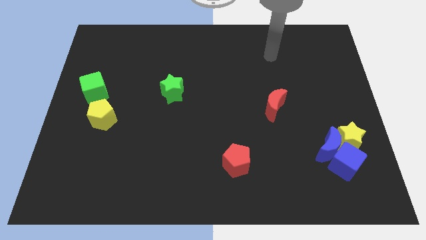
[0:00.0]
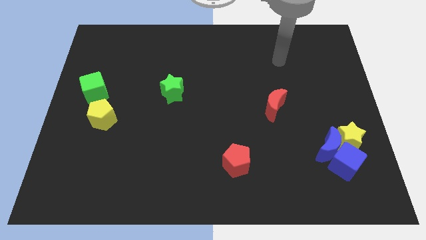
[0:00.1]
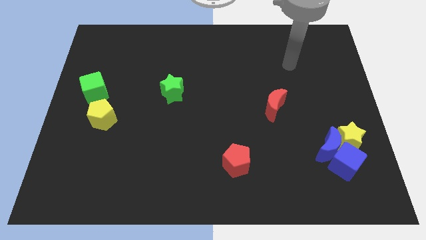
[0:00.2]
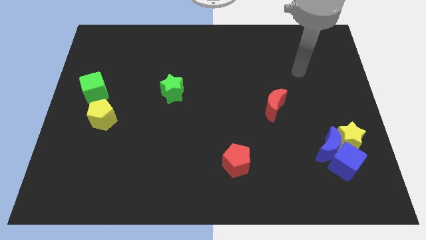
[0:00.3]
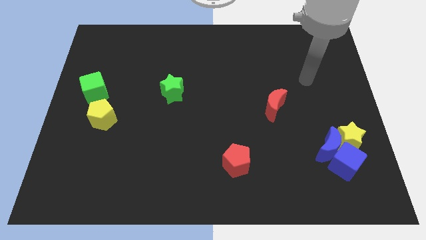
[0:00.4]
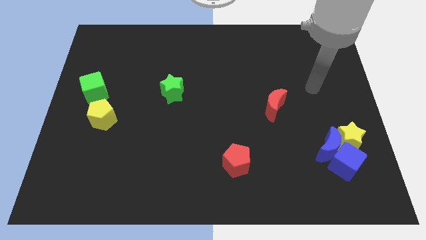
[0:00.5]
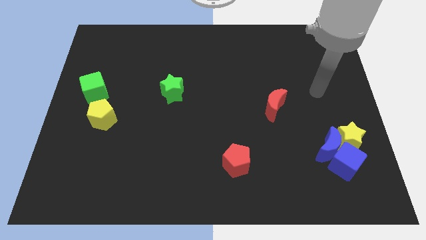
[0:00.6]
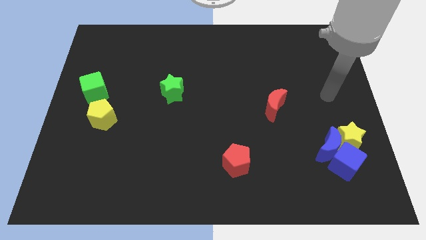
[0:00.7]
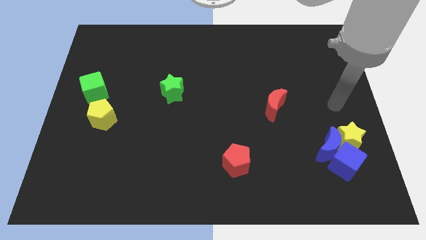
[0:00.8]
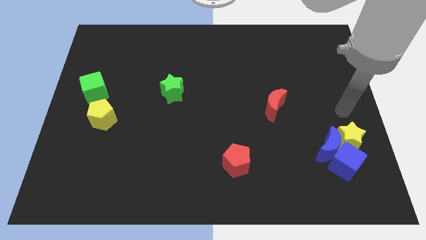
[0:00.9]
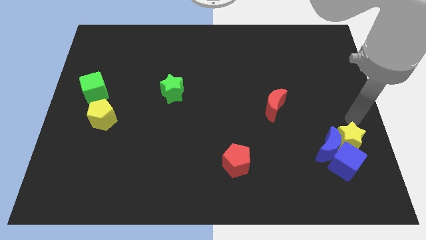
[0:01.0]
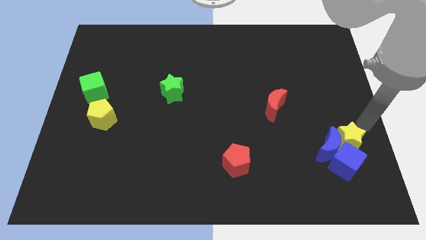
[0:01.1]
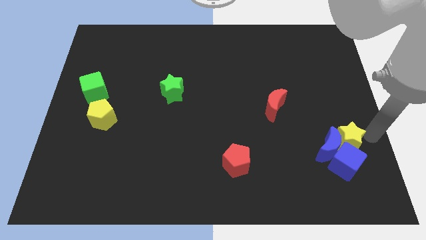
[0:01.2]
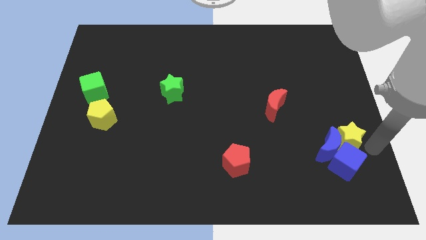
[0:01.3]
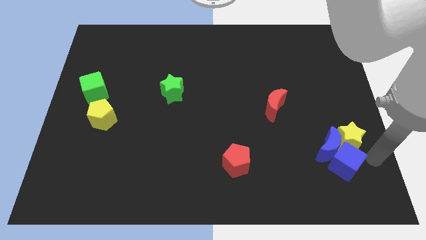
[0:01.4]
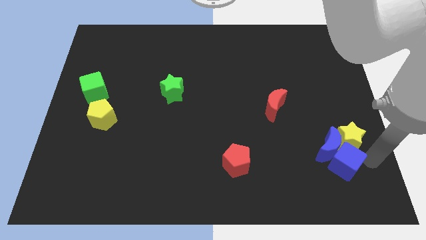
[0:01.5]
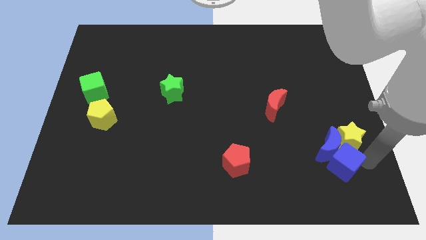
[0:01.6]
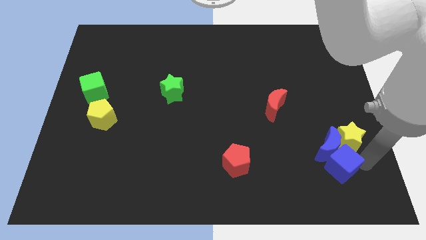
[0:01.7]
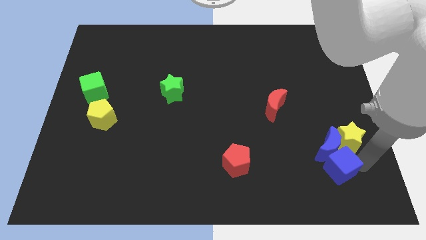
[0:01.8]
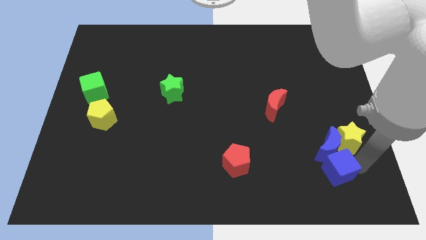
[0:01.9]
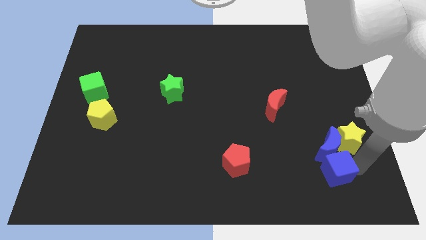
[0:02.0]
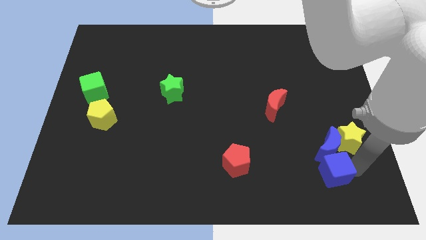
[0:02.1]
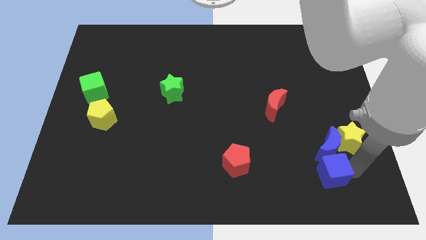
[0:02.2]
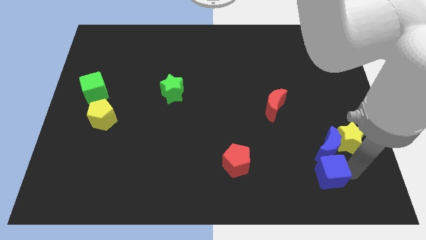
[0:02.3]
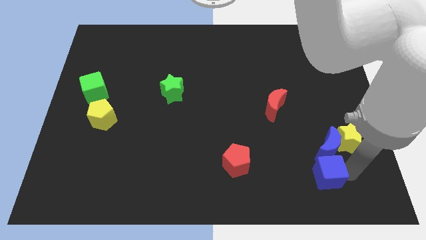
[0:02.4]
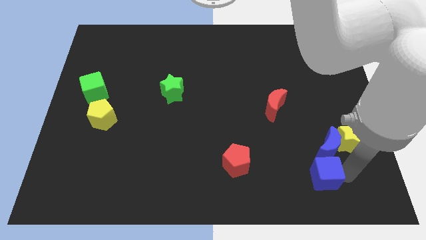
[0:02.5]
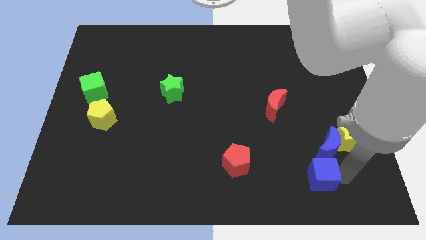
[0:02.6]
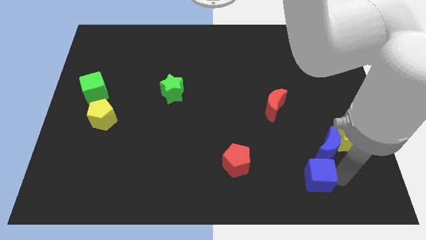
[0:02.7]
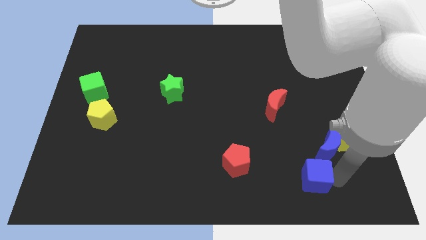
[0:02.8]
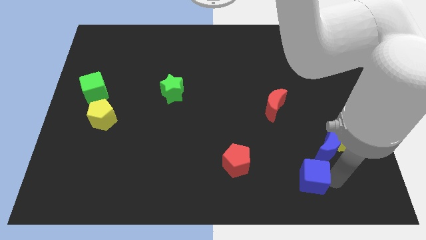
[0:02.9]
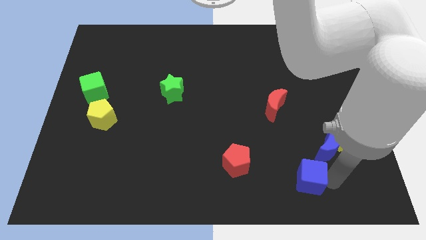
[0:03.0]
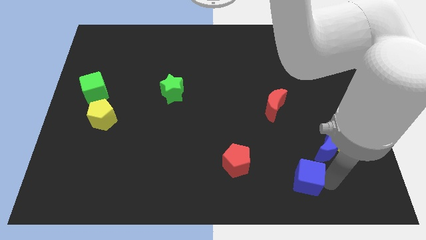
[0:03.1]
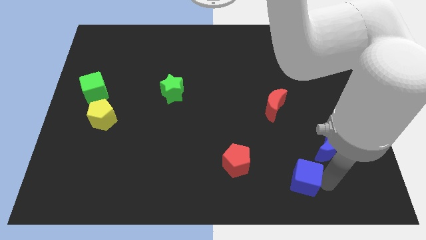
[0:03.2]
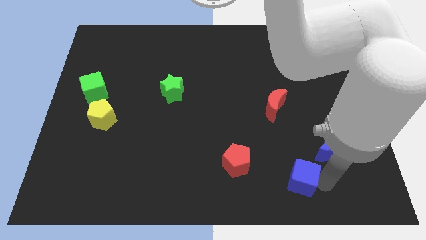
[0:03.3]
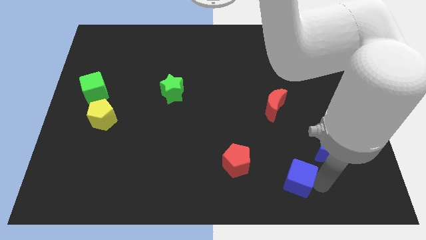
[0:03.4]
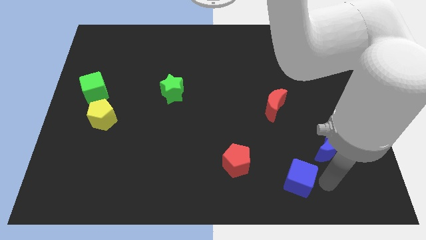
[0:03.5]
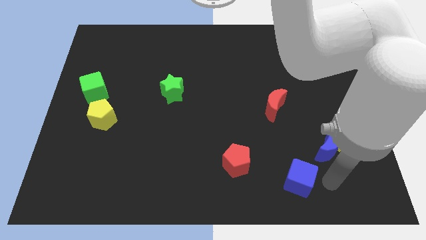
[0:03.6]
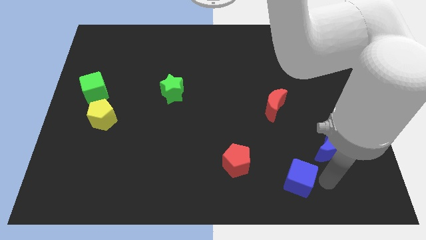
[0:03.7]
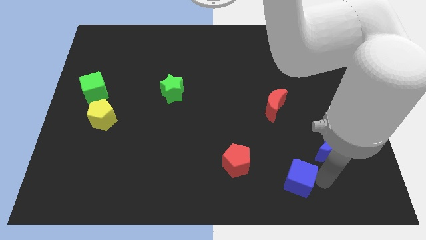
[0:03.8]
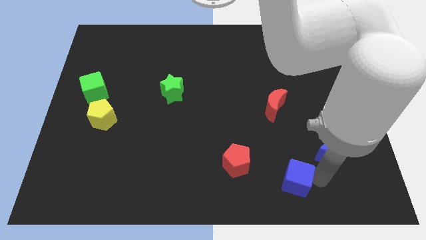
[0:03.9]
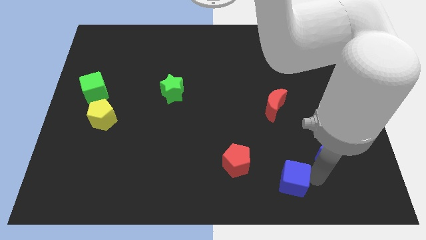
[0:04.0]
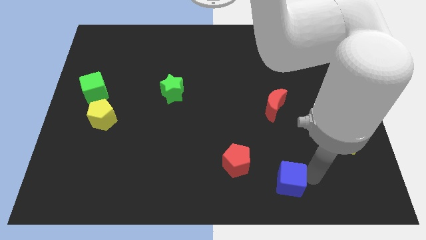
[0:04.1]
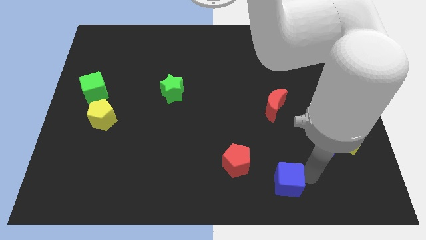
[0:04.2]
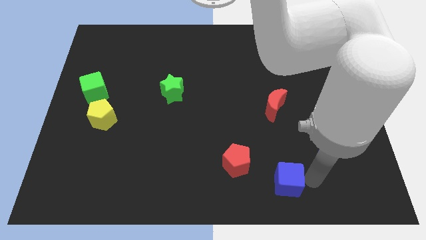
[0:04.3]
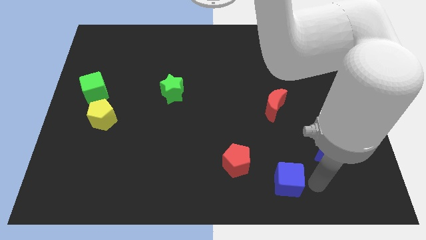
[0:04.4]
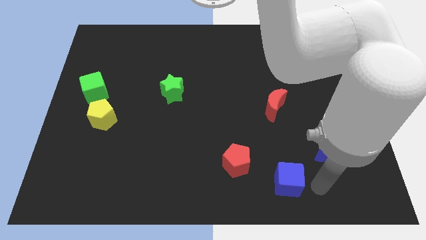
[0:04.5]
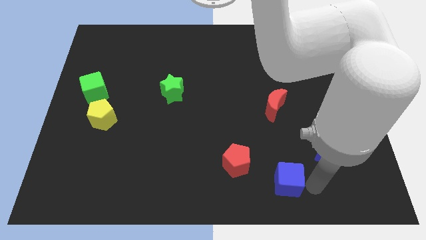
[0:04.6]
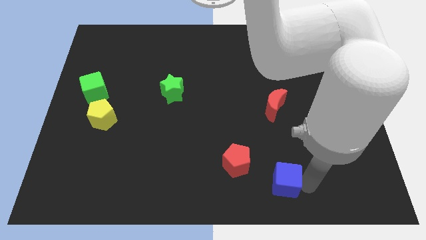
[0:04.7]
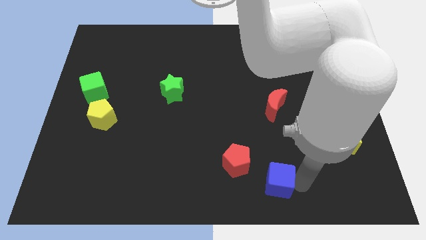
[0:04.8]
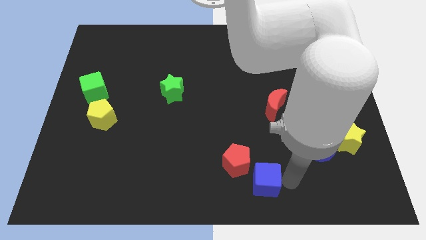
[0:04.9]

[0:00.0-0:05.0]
put the blue cube to the bottom side

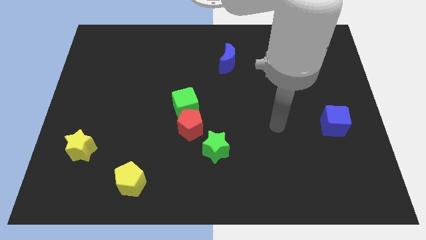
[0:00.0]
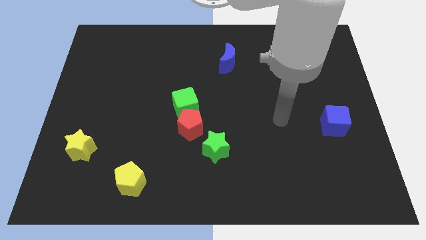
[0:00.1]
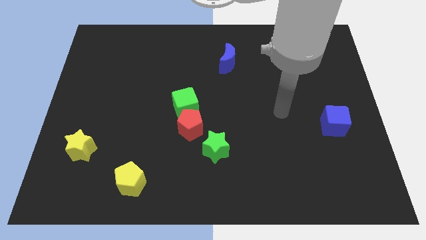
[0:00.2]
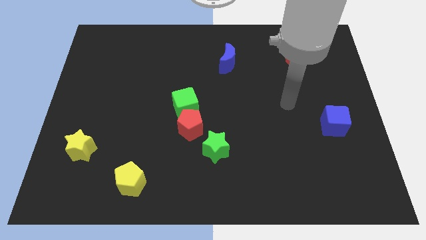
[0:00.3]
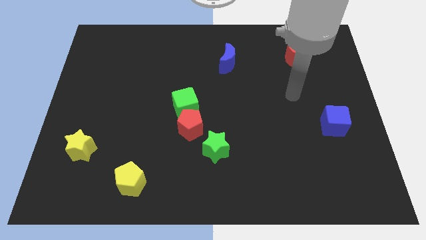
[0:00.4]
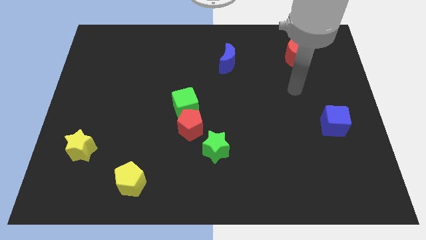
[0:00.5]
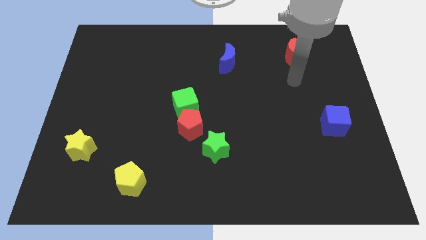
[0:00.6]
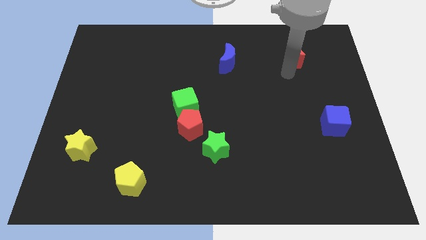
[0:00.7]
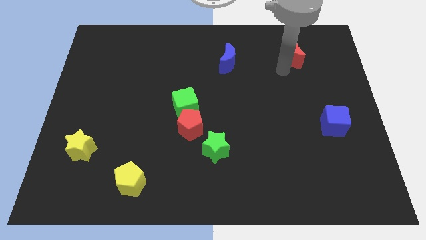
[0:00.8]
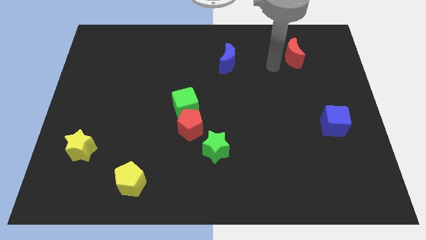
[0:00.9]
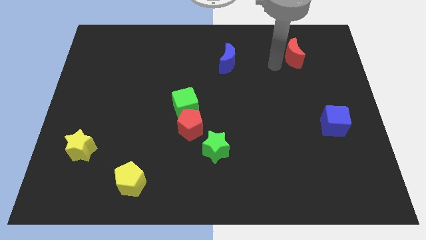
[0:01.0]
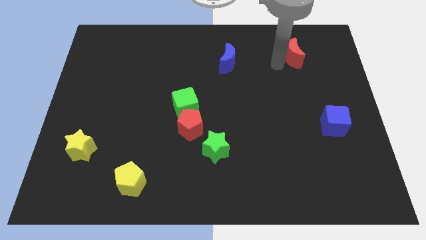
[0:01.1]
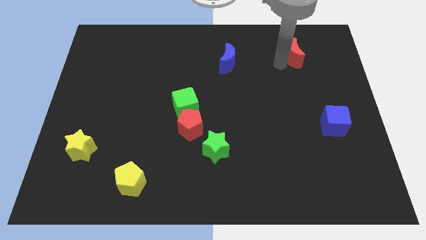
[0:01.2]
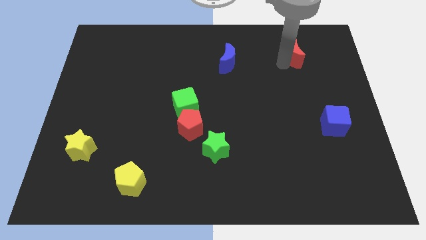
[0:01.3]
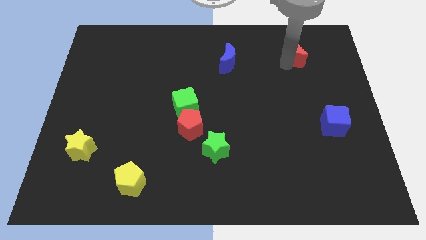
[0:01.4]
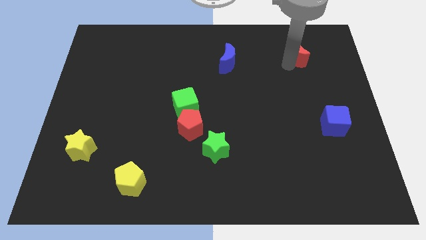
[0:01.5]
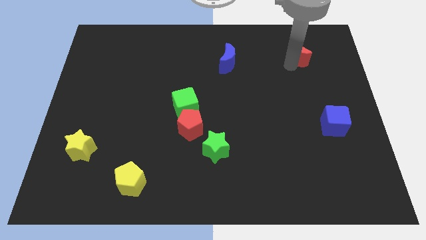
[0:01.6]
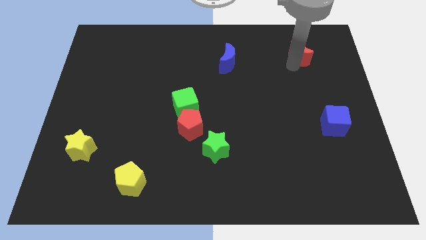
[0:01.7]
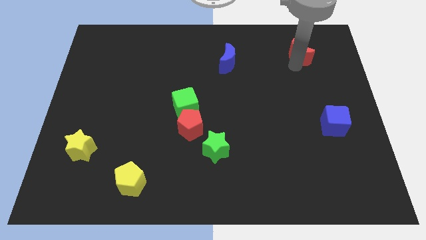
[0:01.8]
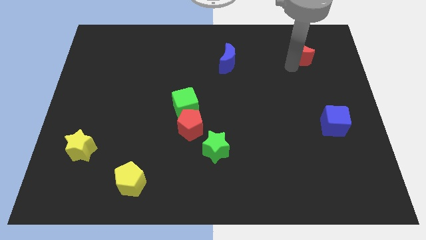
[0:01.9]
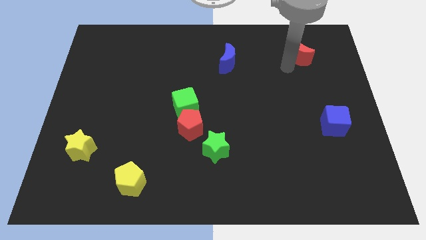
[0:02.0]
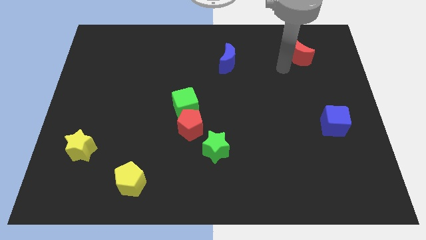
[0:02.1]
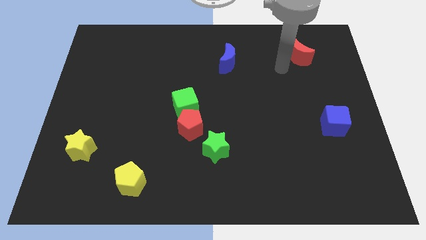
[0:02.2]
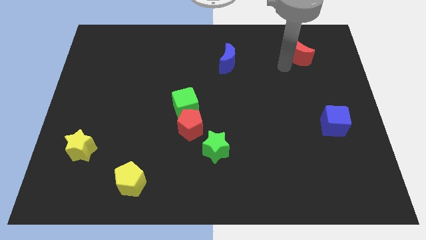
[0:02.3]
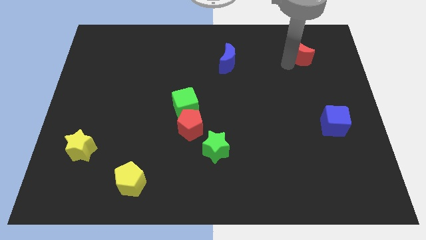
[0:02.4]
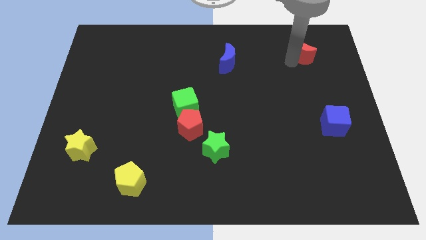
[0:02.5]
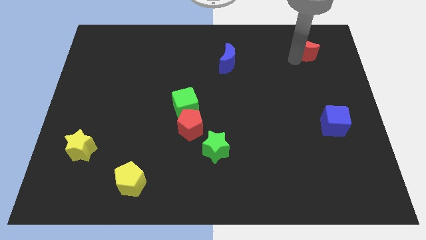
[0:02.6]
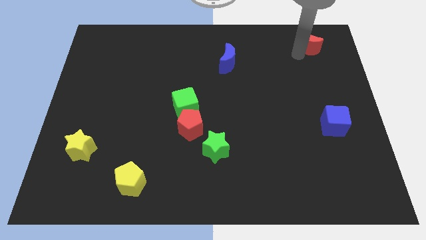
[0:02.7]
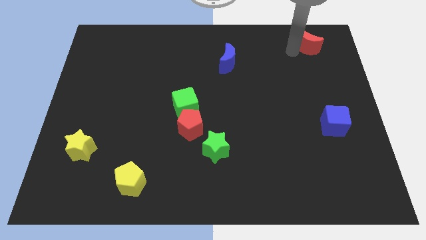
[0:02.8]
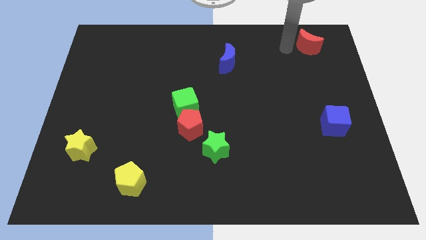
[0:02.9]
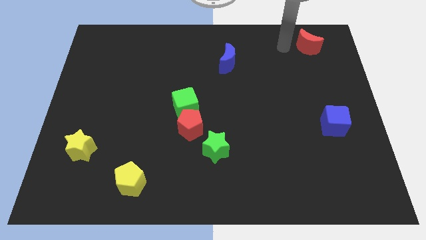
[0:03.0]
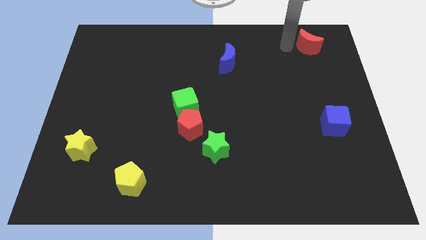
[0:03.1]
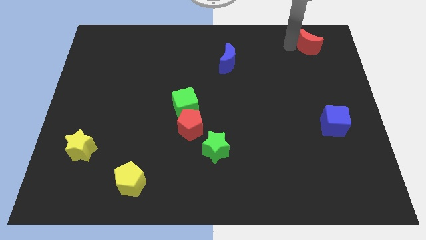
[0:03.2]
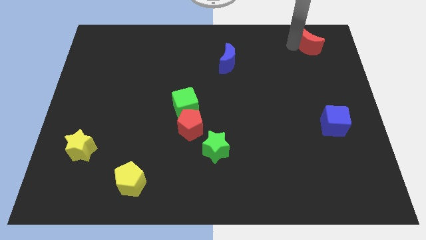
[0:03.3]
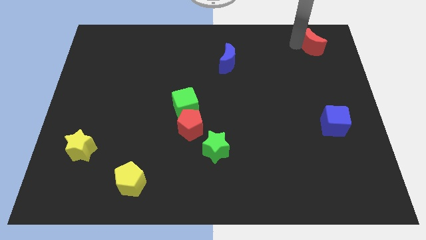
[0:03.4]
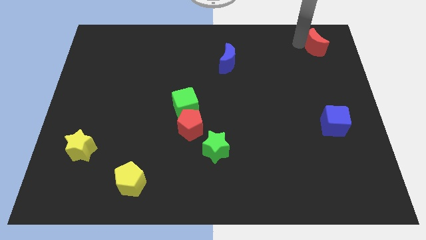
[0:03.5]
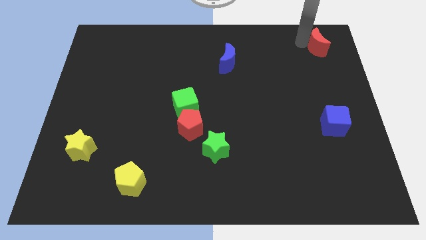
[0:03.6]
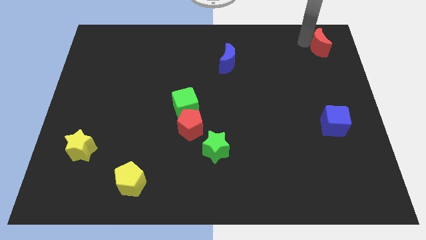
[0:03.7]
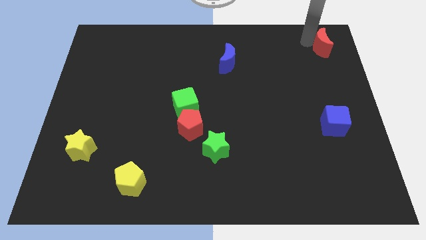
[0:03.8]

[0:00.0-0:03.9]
push the red moon to the upper right corner
